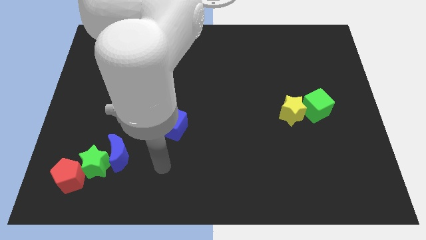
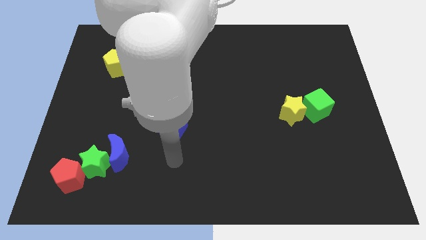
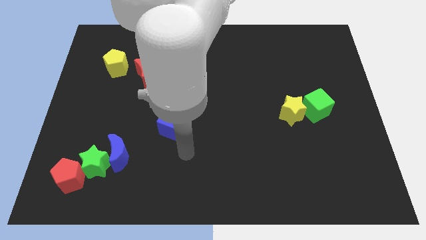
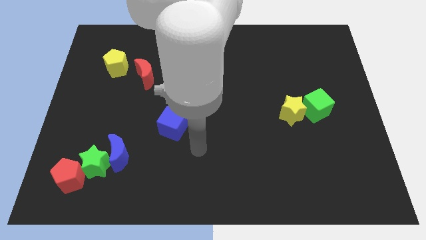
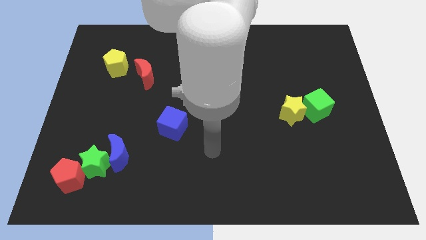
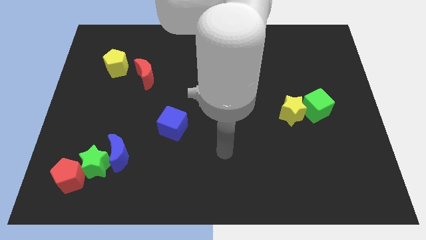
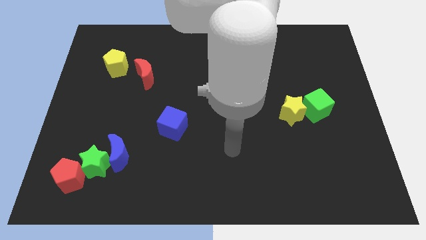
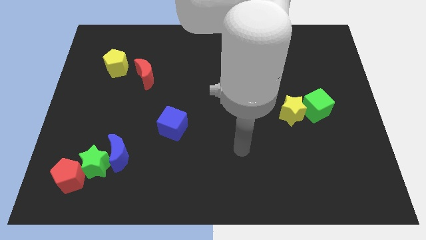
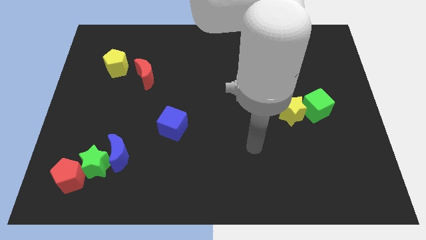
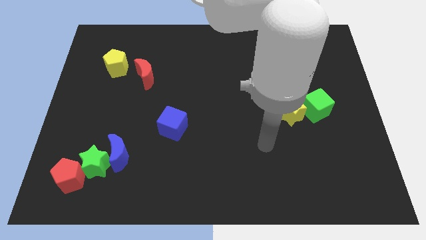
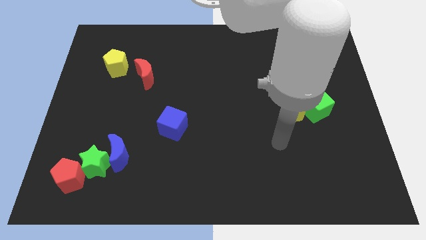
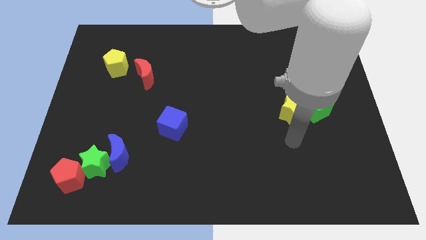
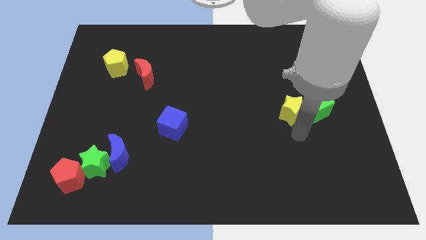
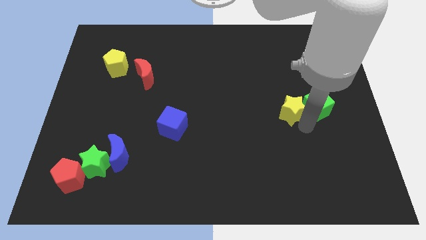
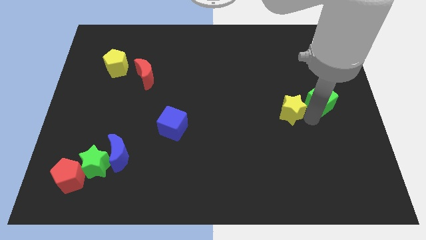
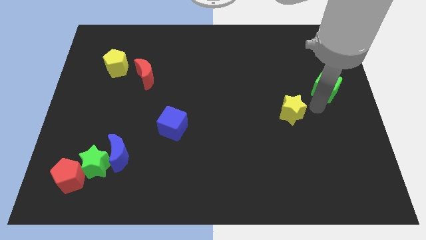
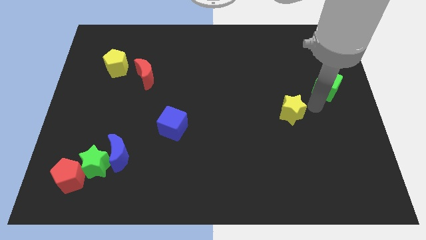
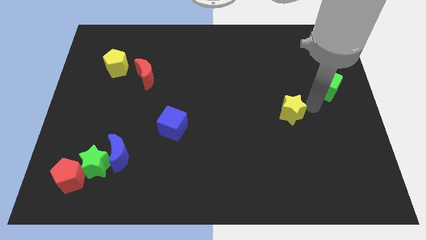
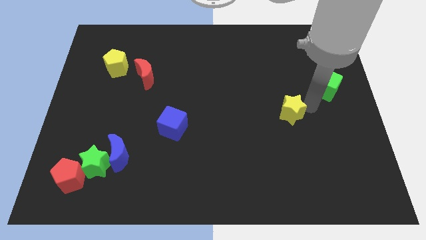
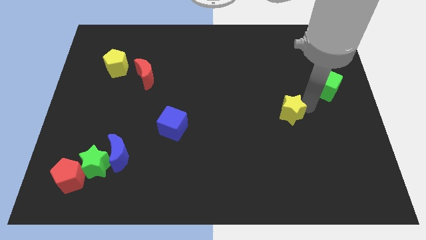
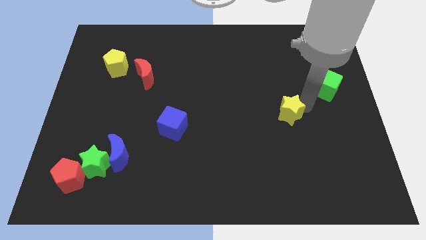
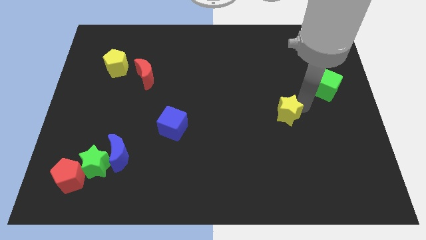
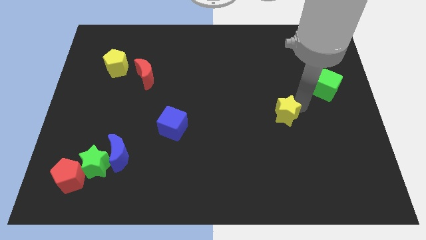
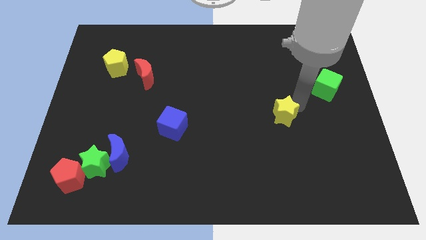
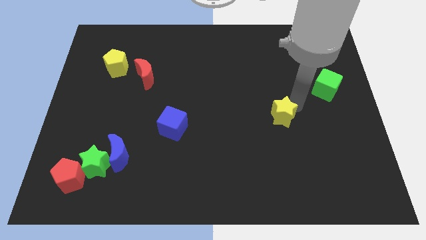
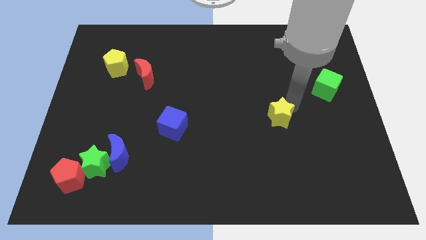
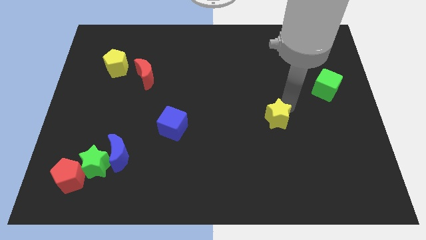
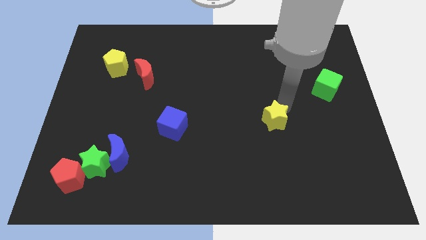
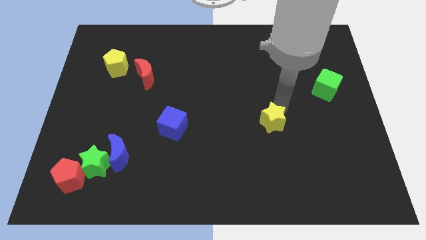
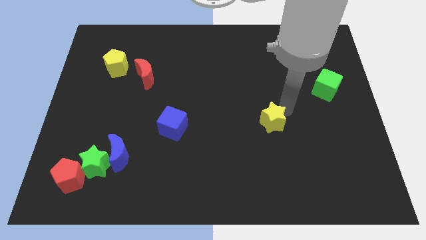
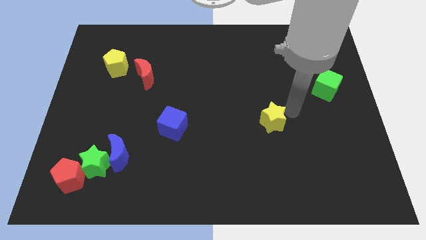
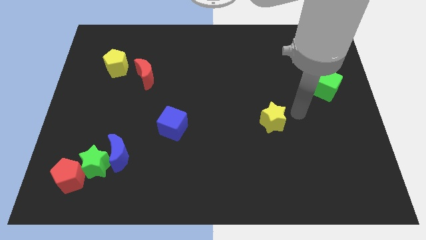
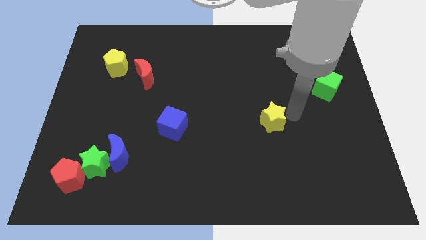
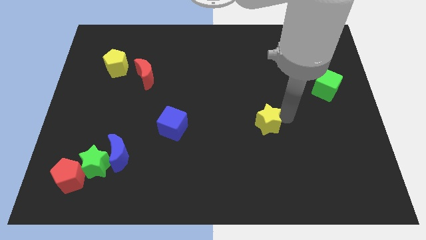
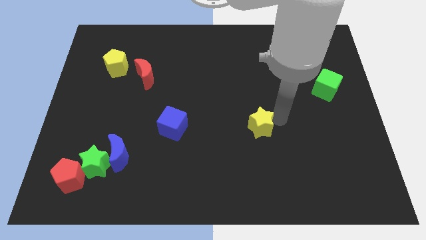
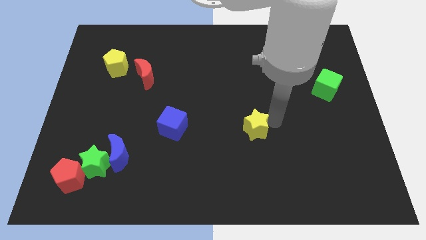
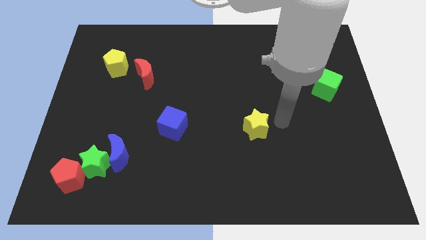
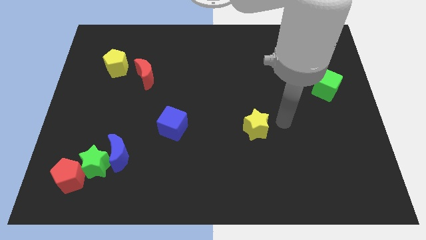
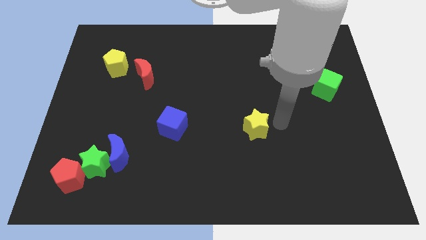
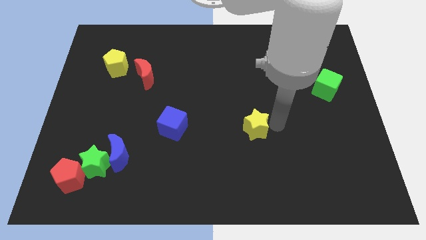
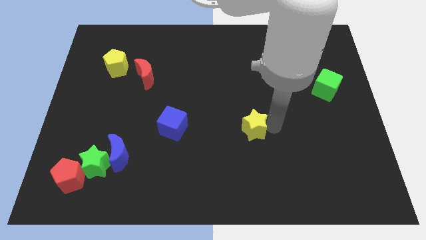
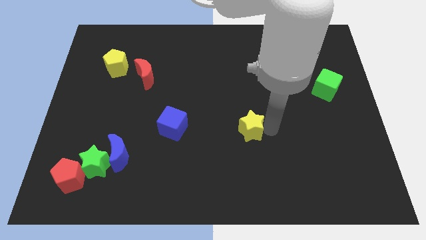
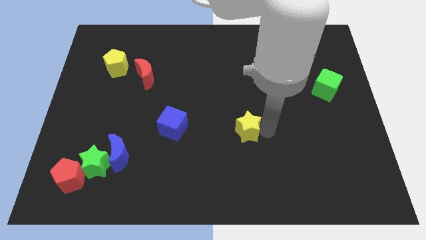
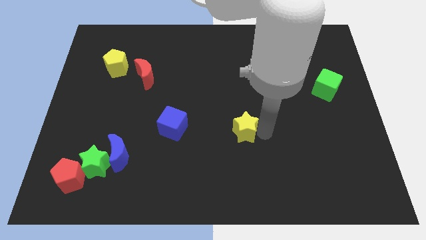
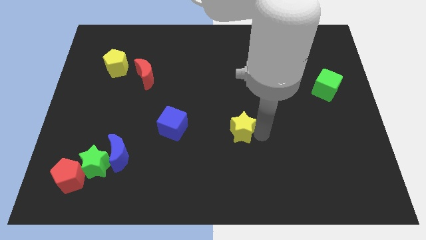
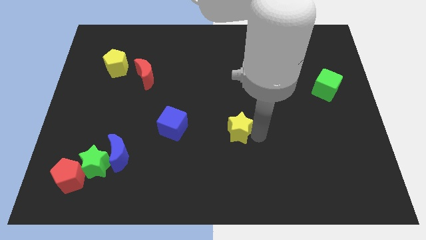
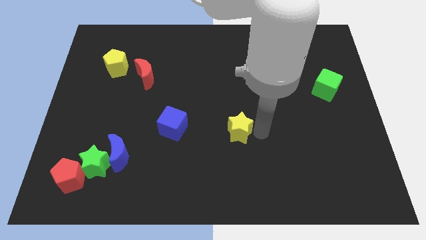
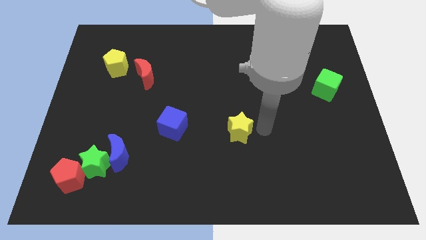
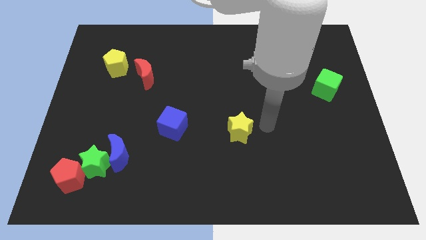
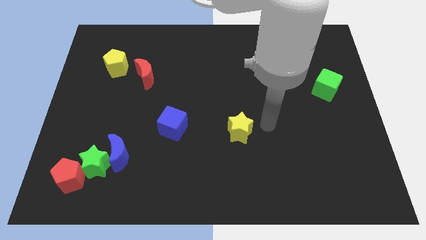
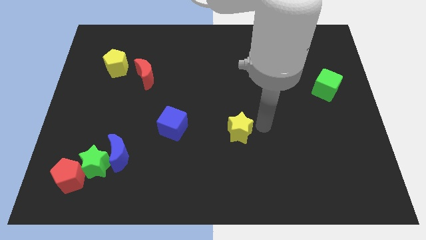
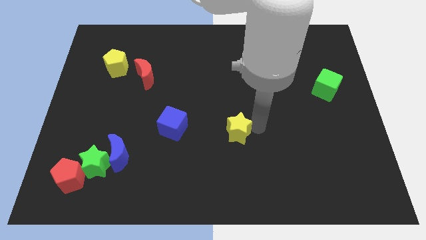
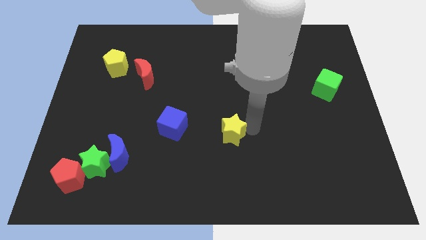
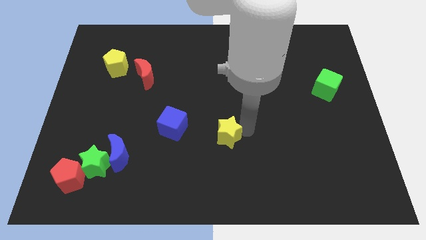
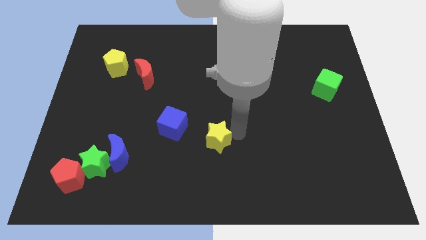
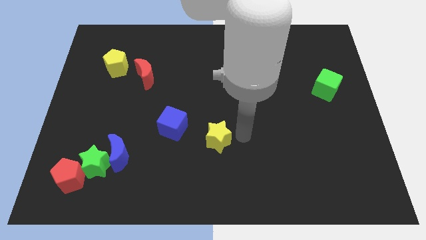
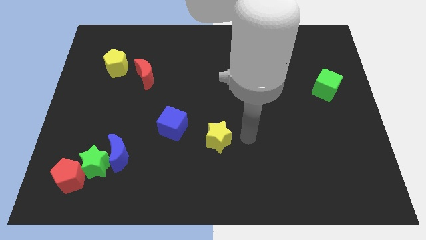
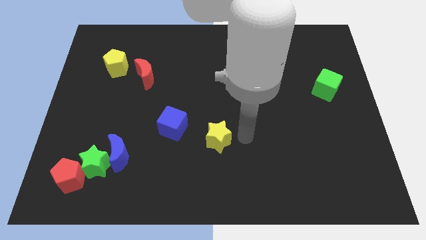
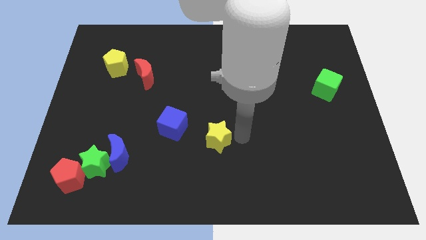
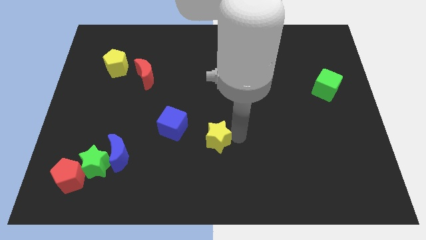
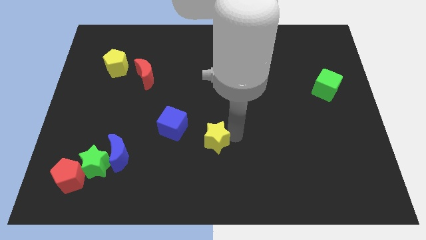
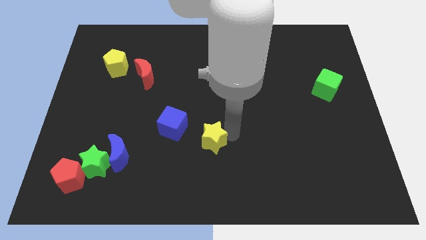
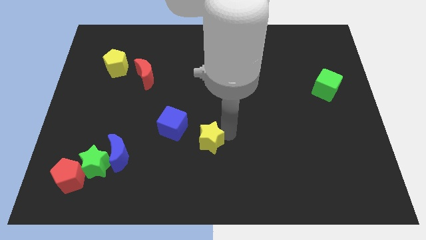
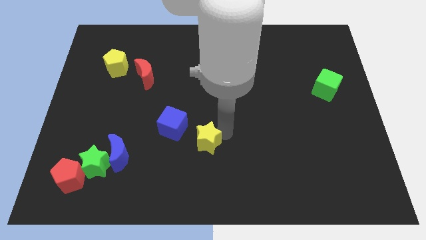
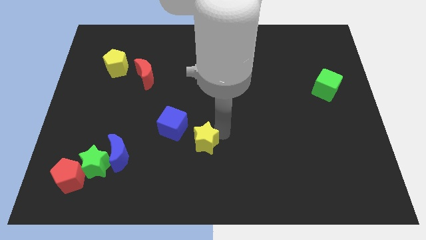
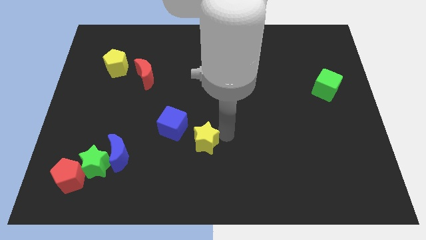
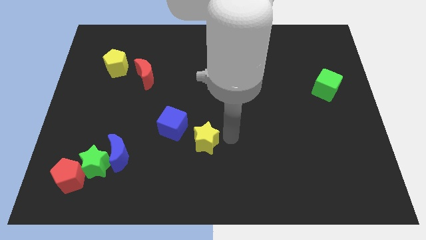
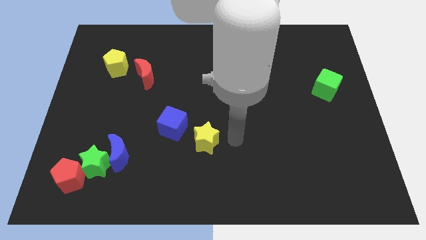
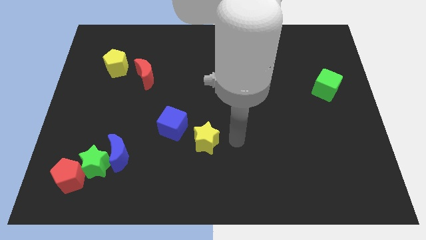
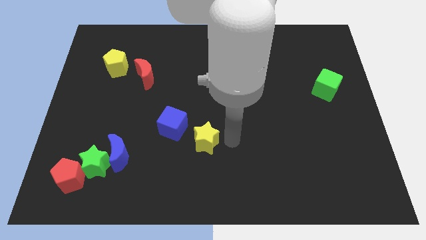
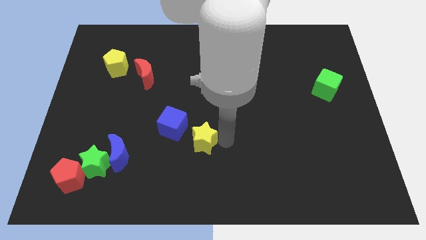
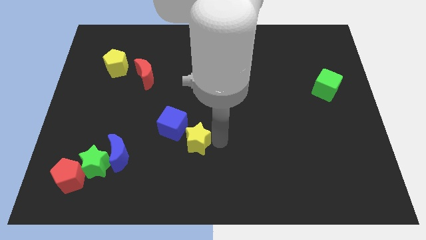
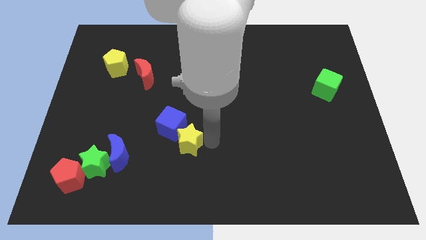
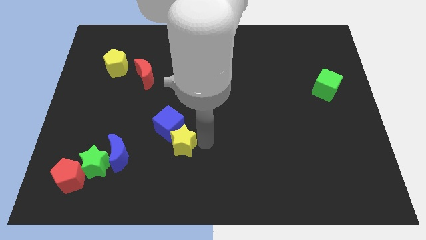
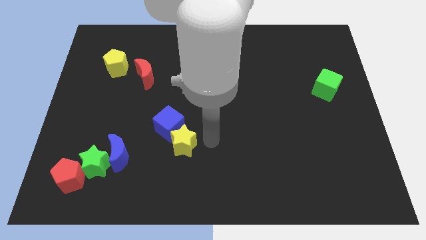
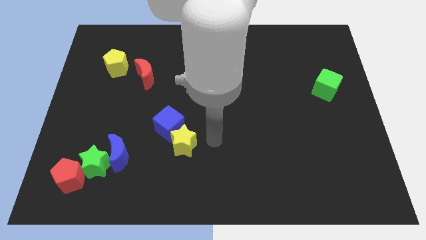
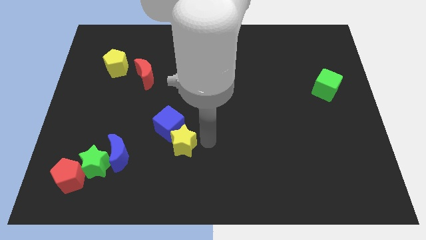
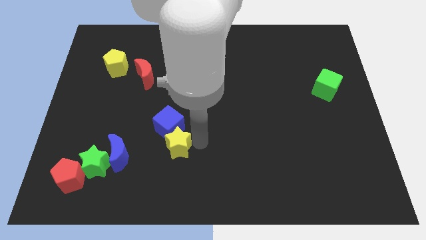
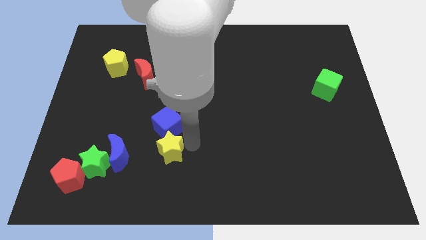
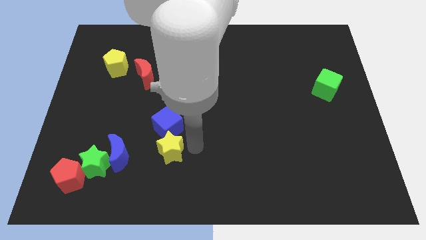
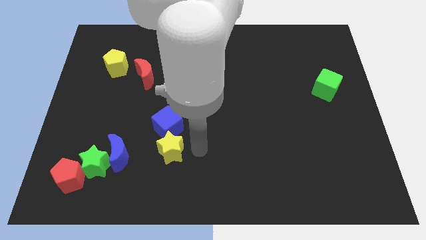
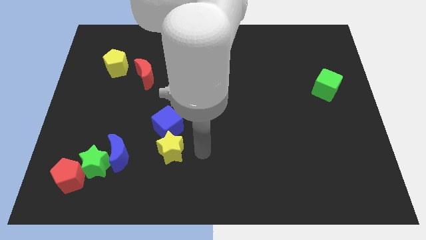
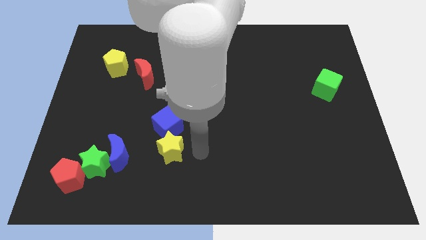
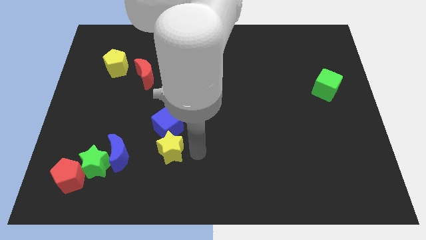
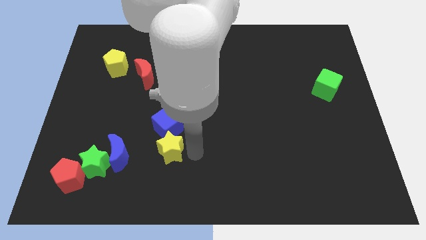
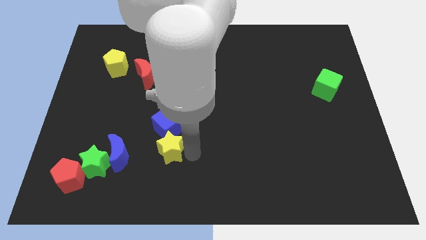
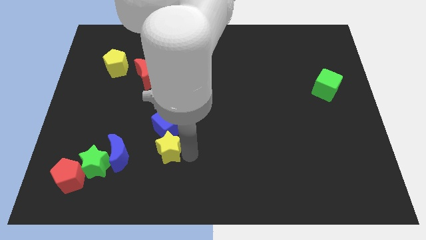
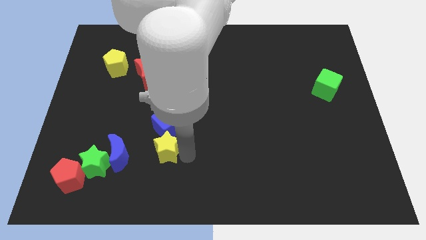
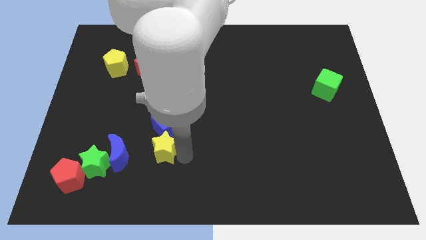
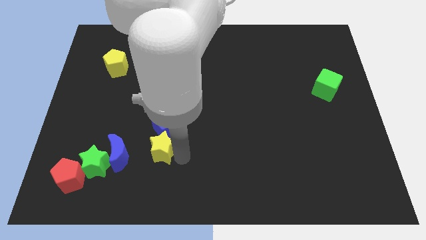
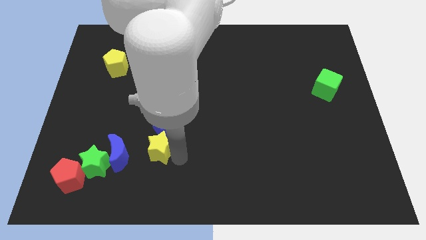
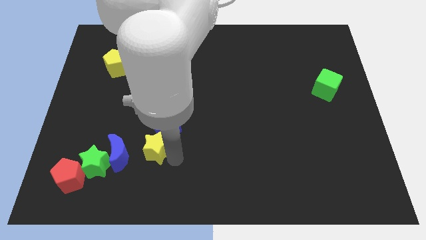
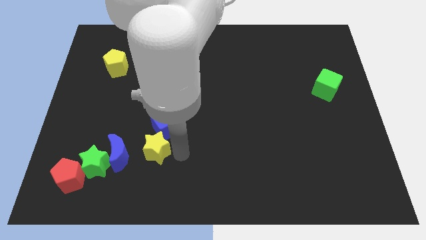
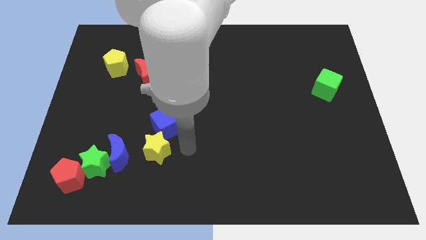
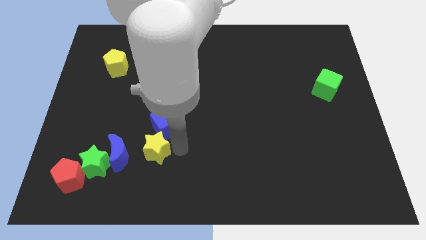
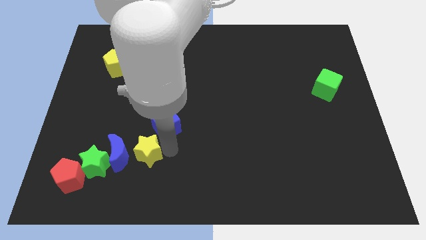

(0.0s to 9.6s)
slide the yellow star close to the blue moon
